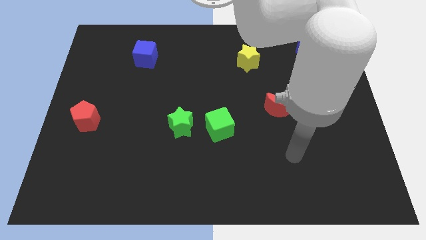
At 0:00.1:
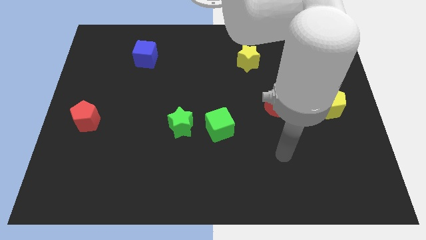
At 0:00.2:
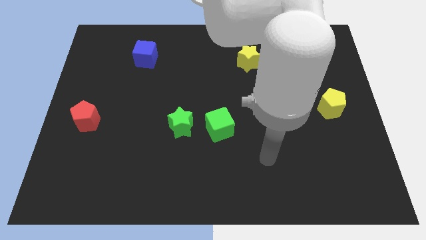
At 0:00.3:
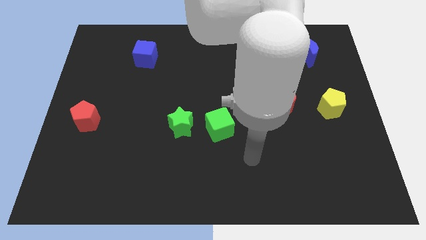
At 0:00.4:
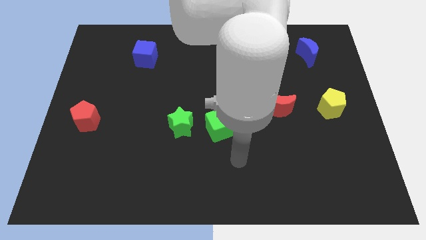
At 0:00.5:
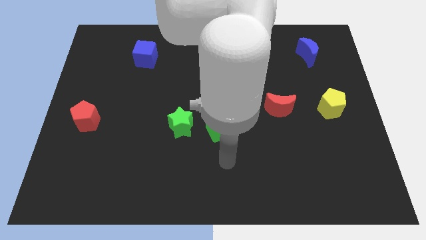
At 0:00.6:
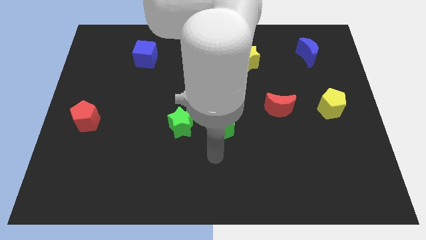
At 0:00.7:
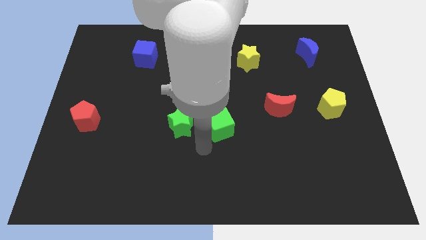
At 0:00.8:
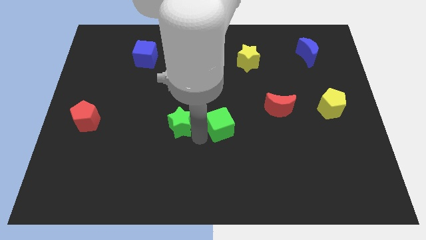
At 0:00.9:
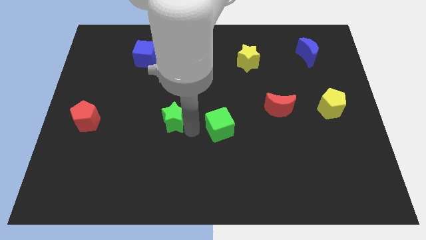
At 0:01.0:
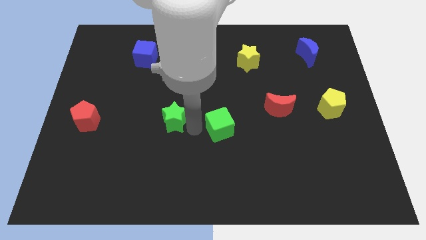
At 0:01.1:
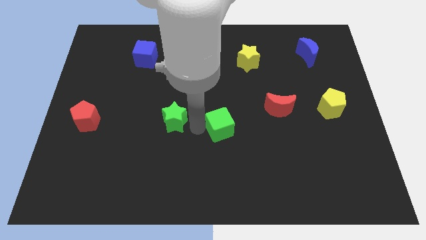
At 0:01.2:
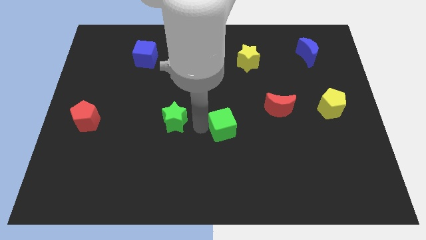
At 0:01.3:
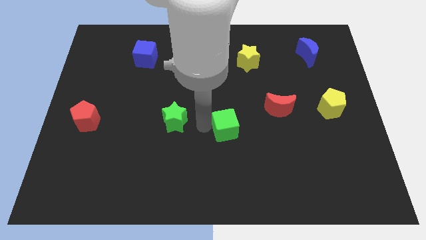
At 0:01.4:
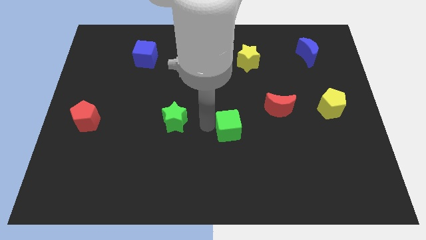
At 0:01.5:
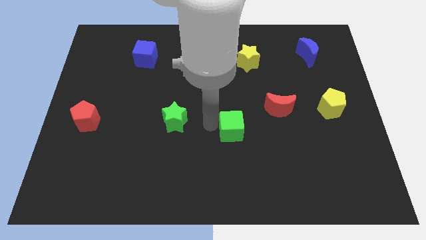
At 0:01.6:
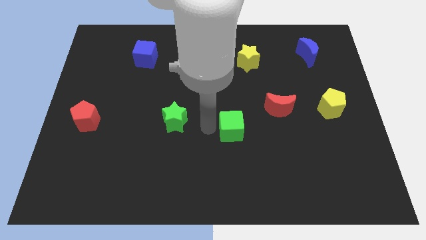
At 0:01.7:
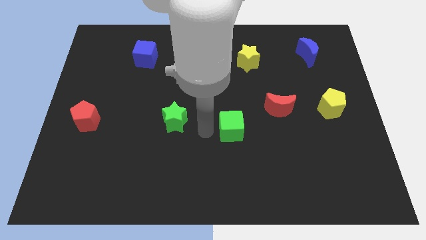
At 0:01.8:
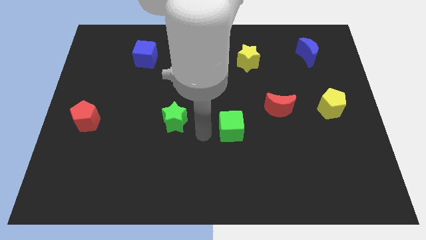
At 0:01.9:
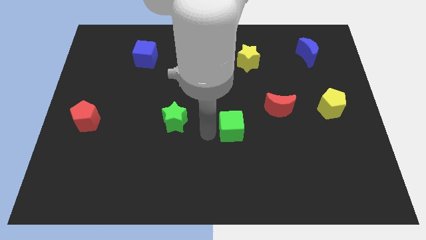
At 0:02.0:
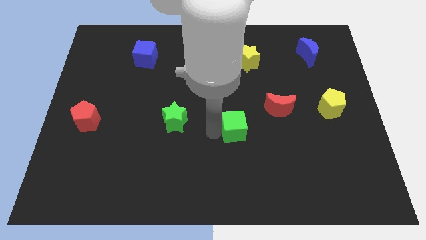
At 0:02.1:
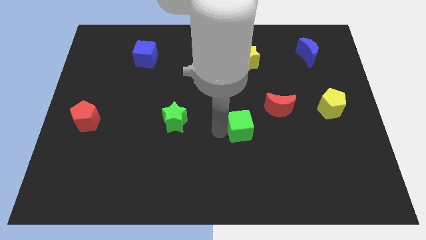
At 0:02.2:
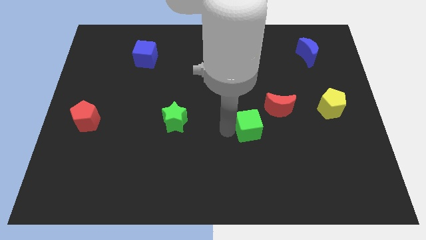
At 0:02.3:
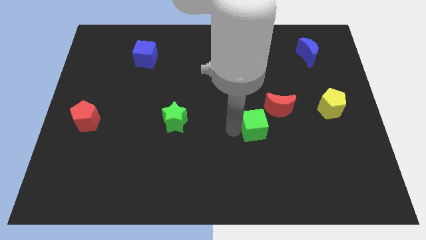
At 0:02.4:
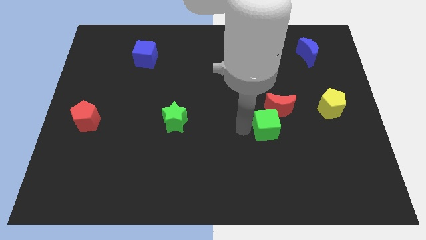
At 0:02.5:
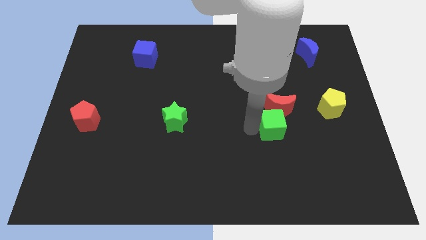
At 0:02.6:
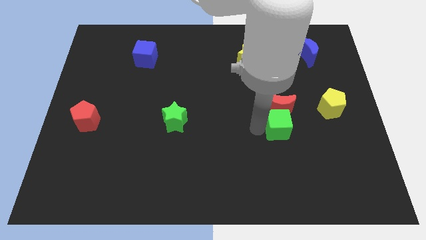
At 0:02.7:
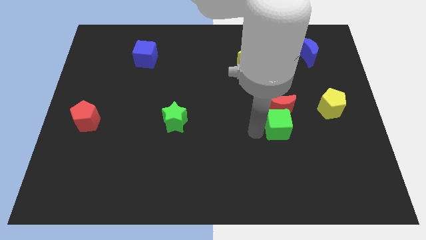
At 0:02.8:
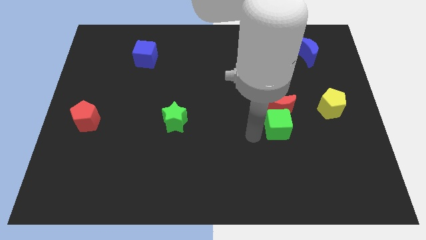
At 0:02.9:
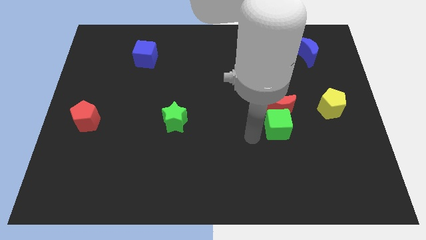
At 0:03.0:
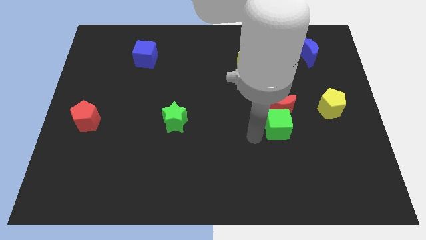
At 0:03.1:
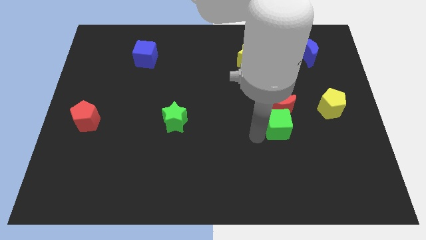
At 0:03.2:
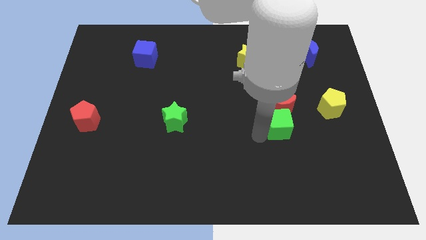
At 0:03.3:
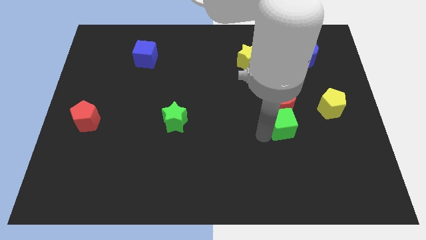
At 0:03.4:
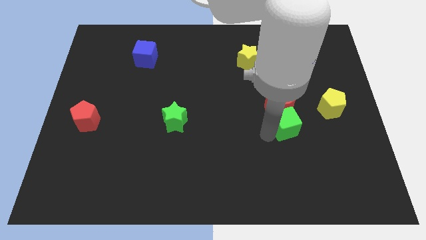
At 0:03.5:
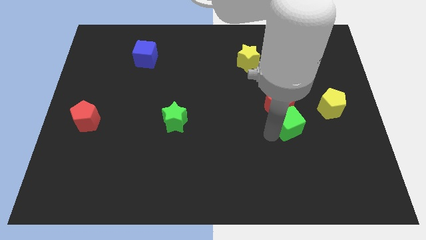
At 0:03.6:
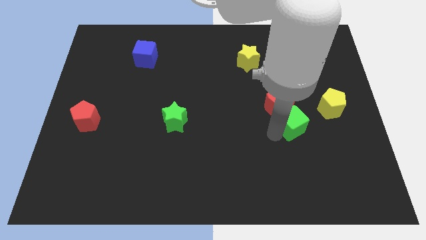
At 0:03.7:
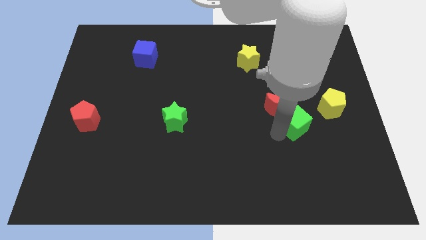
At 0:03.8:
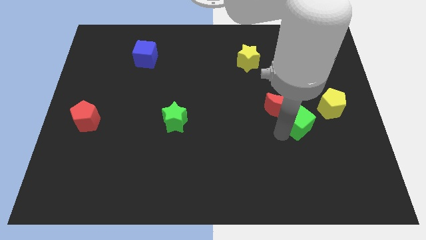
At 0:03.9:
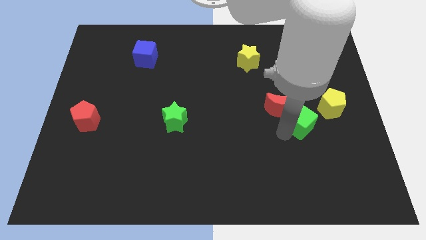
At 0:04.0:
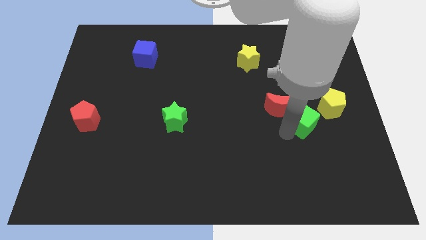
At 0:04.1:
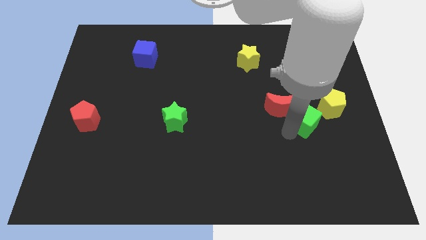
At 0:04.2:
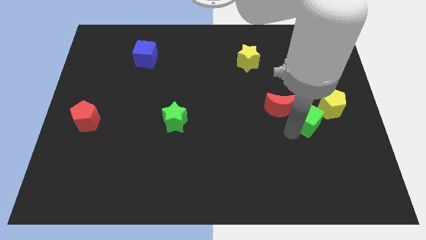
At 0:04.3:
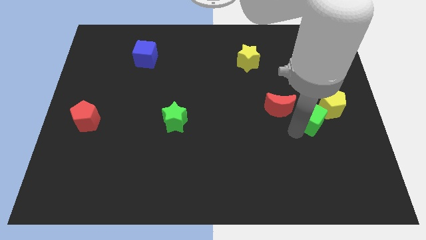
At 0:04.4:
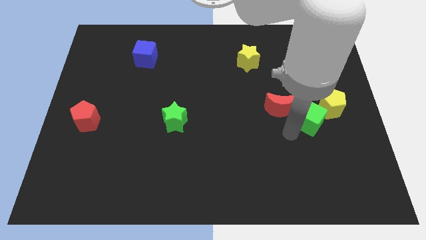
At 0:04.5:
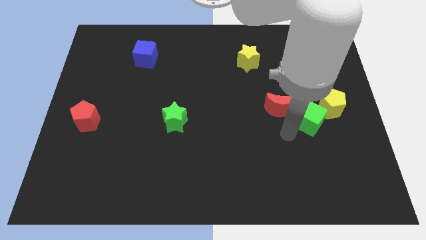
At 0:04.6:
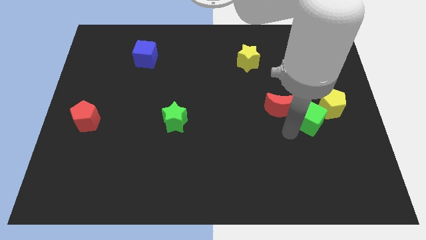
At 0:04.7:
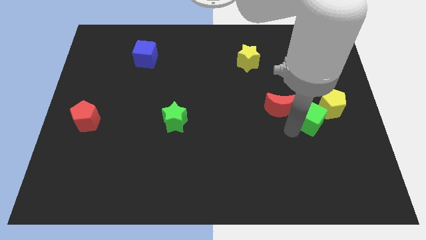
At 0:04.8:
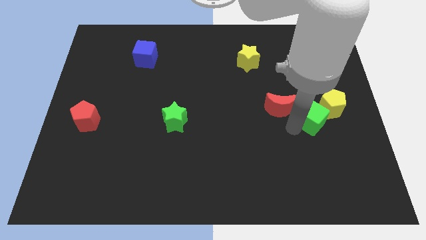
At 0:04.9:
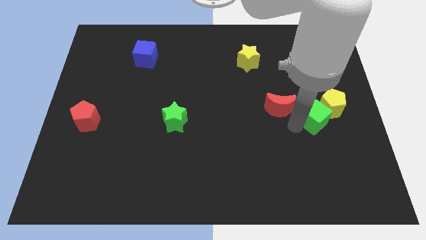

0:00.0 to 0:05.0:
move the green cube towards the yellow pentagon

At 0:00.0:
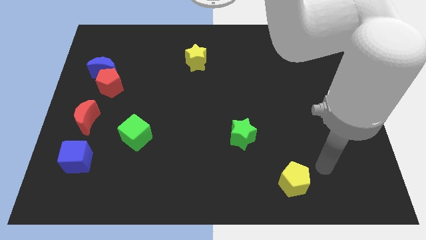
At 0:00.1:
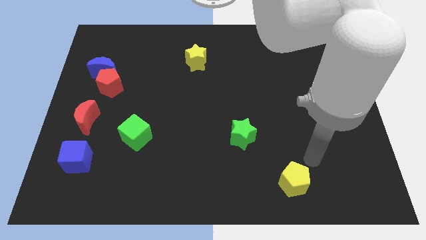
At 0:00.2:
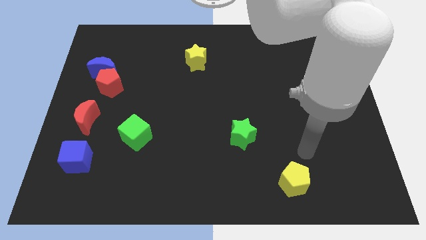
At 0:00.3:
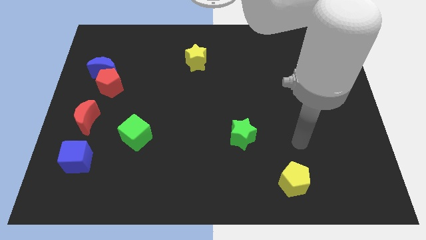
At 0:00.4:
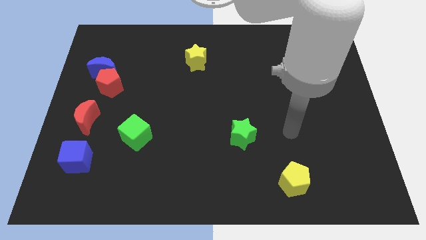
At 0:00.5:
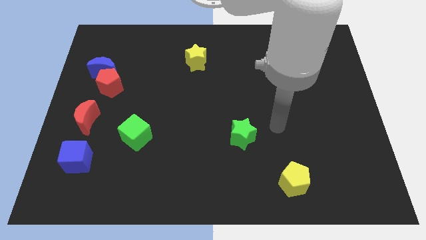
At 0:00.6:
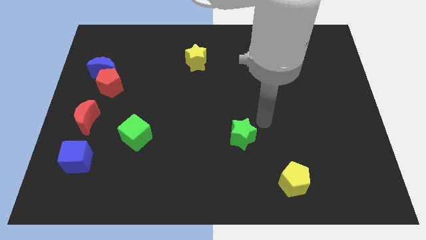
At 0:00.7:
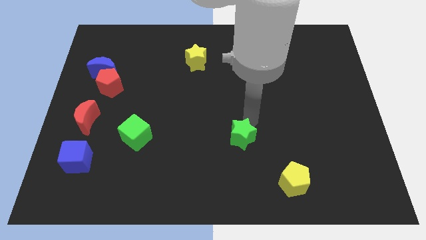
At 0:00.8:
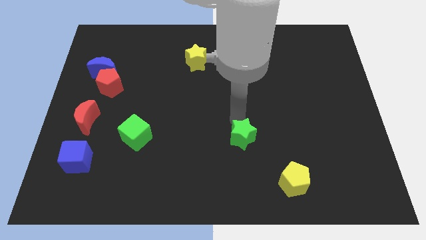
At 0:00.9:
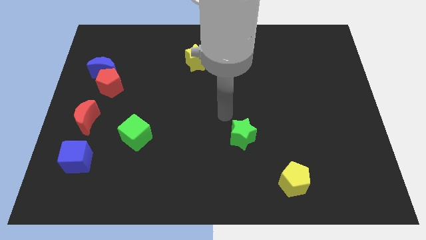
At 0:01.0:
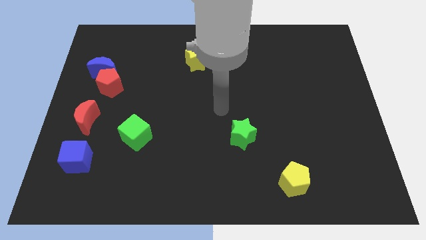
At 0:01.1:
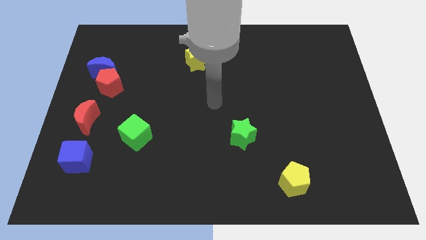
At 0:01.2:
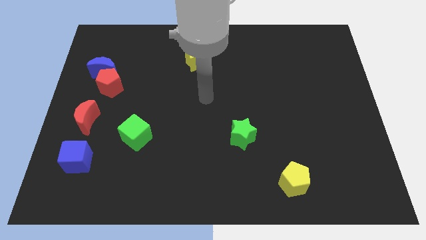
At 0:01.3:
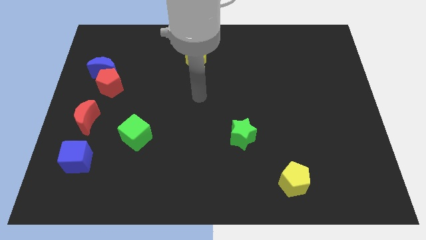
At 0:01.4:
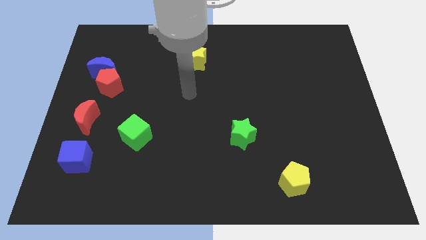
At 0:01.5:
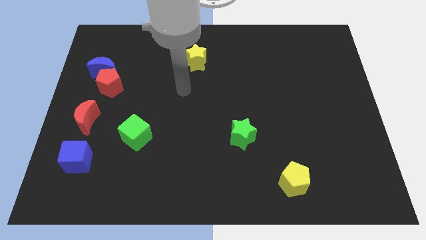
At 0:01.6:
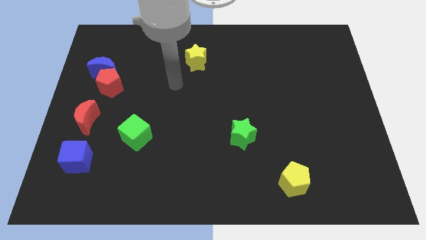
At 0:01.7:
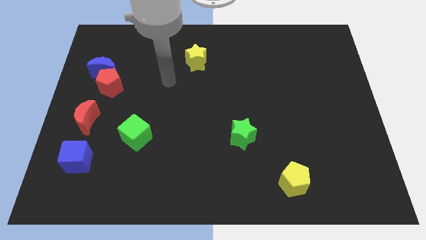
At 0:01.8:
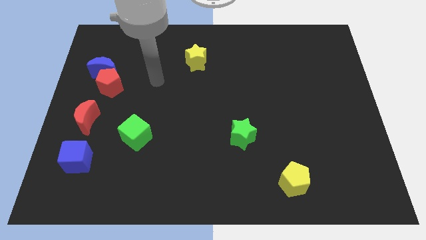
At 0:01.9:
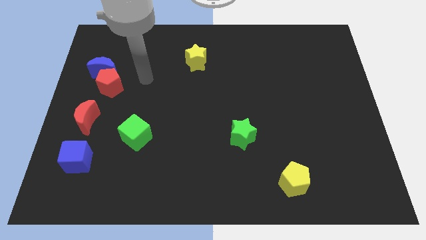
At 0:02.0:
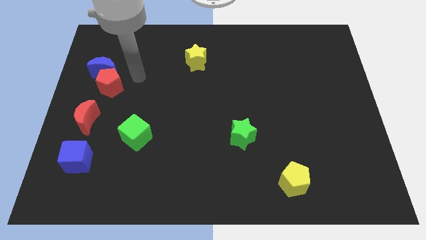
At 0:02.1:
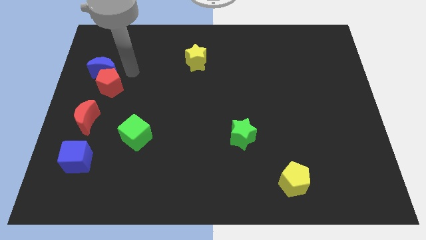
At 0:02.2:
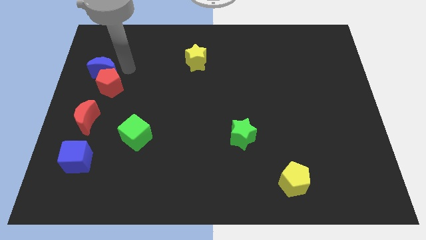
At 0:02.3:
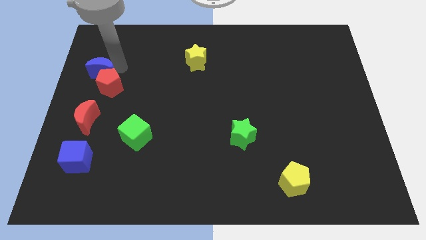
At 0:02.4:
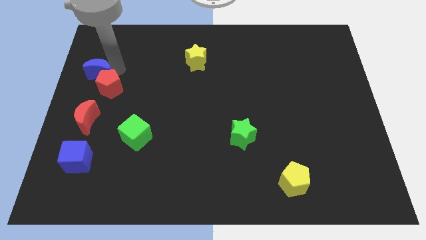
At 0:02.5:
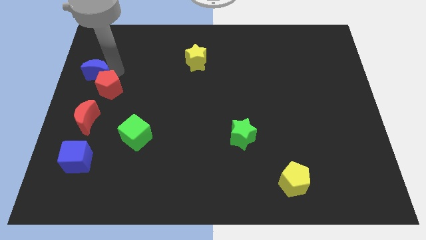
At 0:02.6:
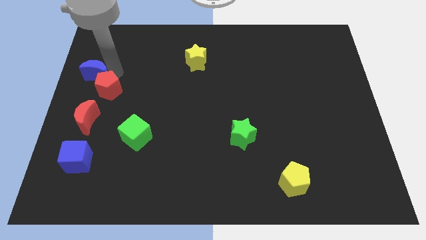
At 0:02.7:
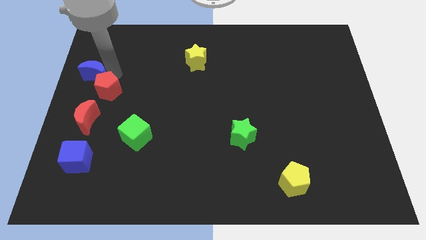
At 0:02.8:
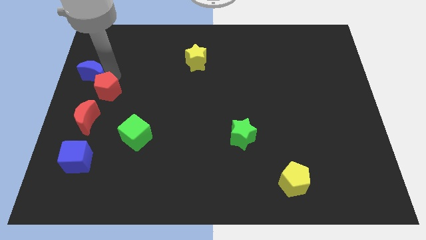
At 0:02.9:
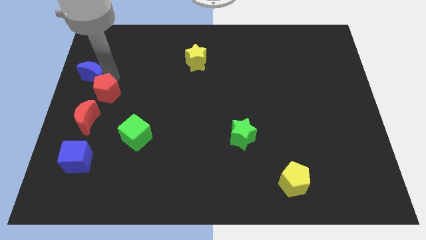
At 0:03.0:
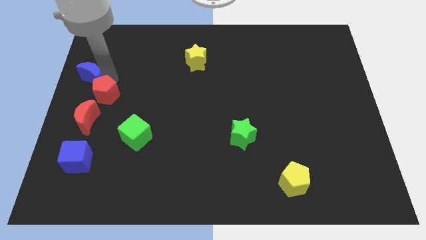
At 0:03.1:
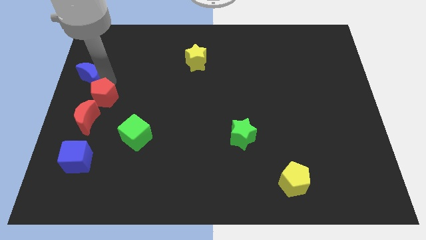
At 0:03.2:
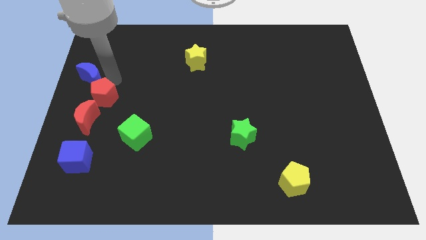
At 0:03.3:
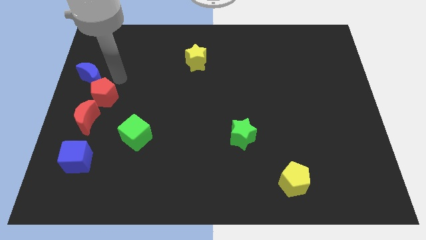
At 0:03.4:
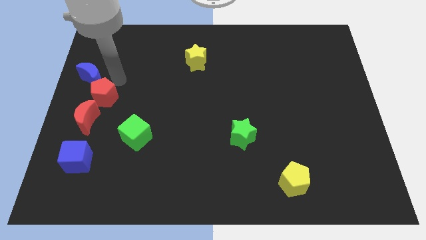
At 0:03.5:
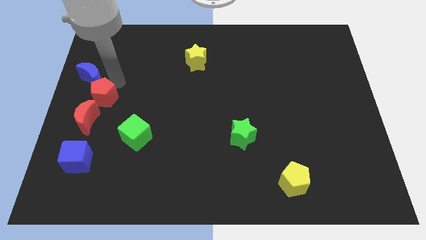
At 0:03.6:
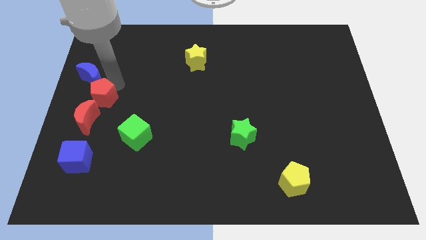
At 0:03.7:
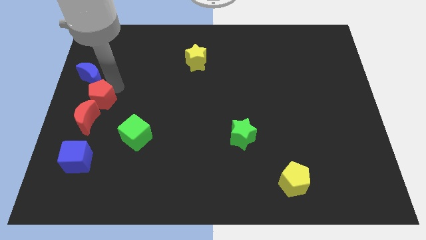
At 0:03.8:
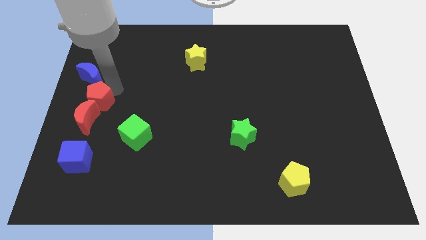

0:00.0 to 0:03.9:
push the red pentagon towards the red moon
